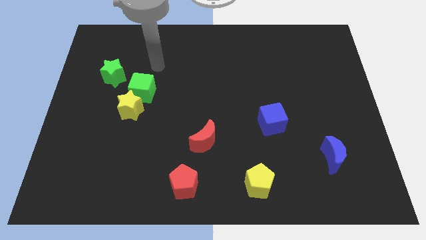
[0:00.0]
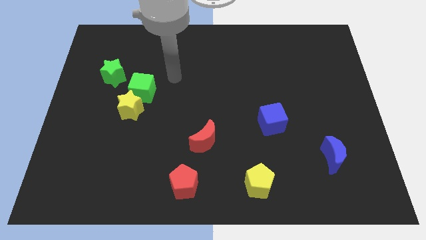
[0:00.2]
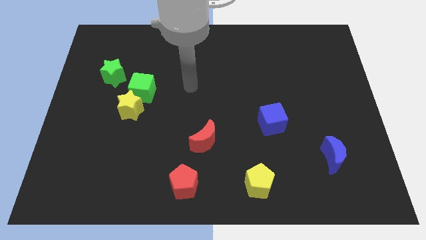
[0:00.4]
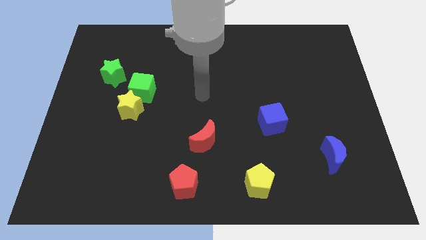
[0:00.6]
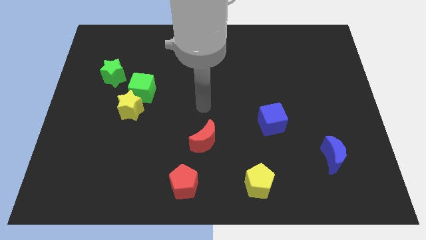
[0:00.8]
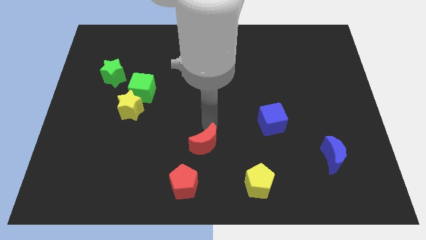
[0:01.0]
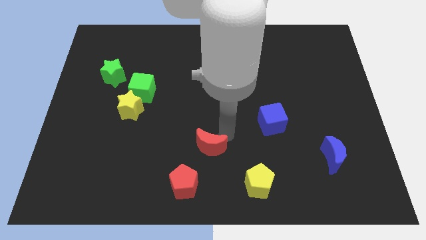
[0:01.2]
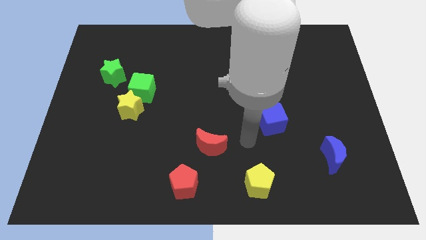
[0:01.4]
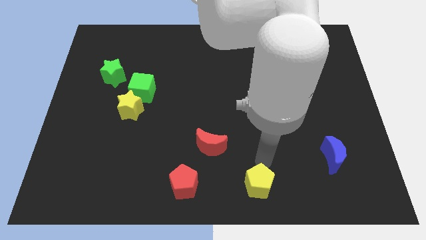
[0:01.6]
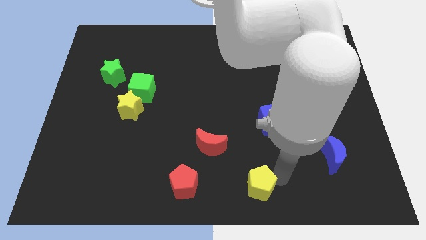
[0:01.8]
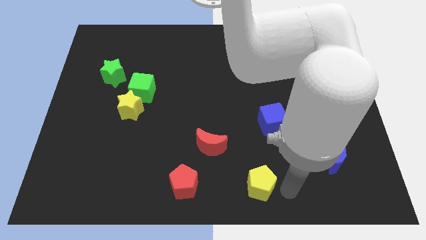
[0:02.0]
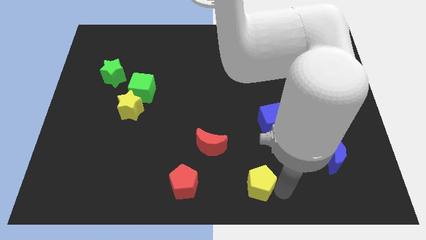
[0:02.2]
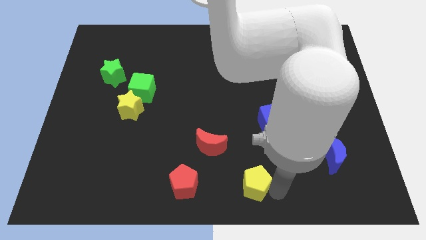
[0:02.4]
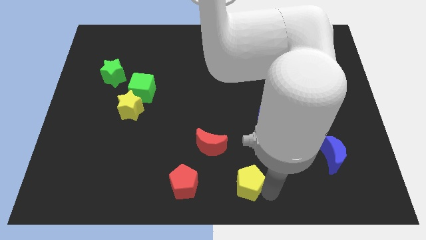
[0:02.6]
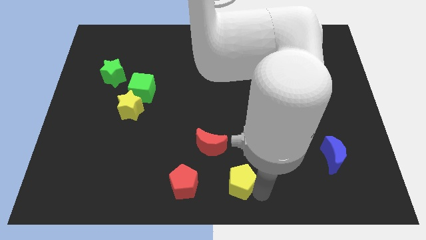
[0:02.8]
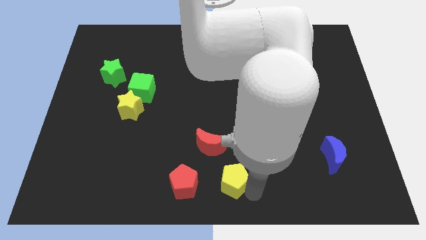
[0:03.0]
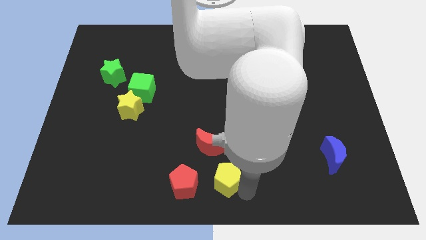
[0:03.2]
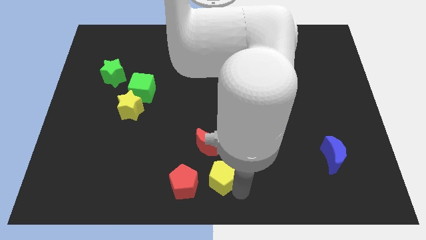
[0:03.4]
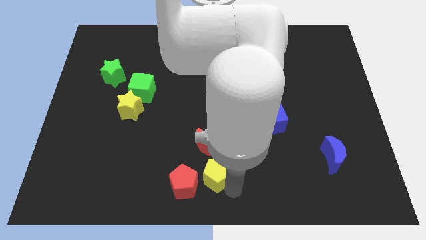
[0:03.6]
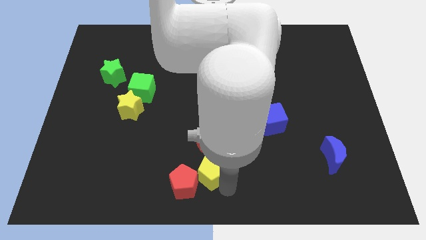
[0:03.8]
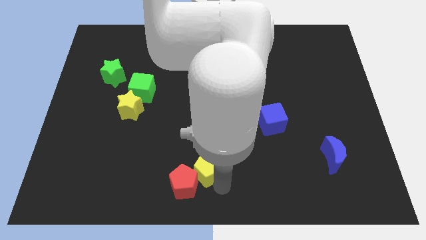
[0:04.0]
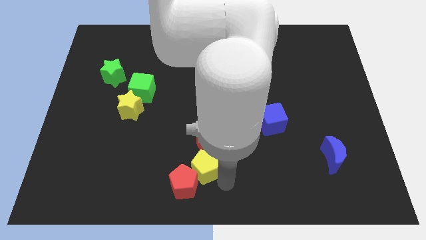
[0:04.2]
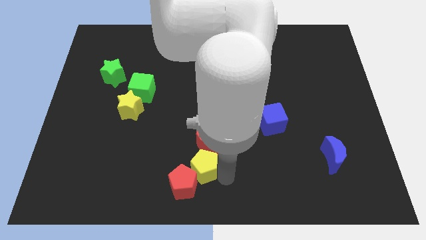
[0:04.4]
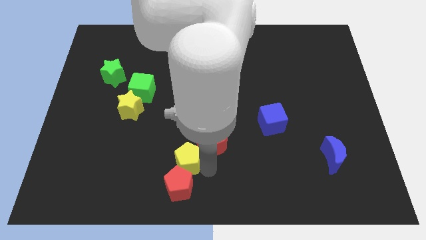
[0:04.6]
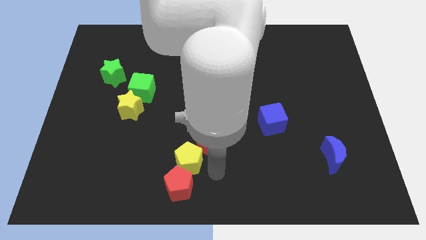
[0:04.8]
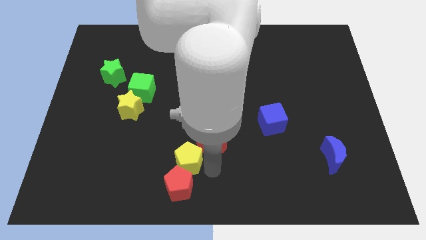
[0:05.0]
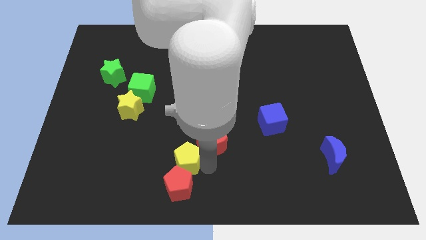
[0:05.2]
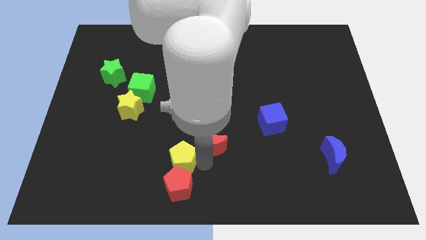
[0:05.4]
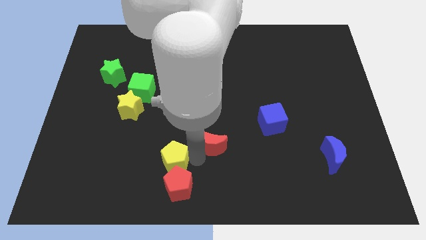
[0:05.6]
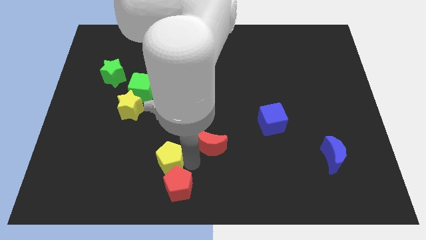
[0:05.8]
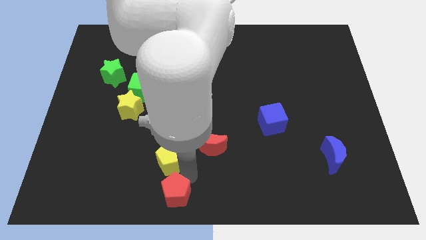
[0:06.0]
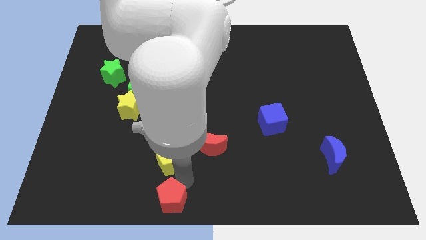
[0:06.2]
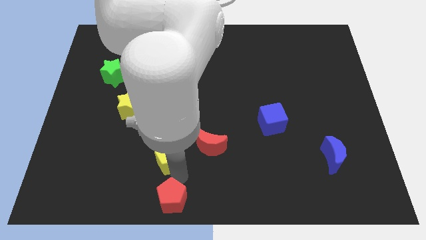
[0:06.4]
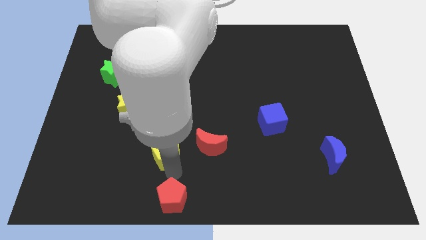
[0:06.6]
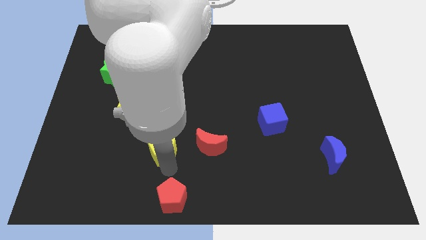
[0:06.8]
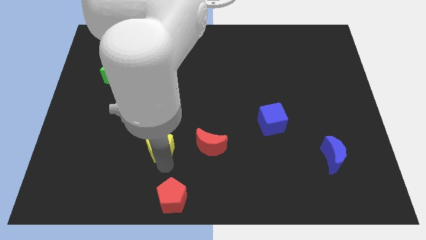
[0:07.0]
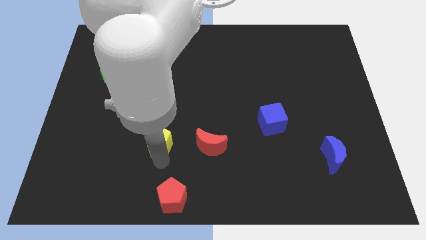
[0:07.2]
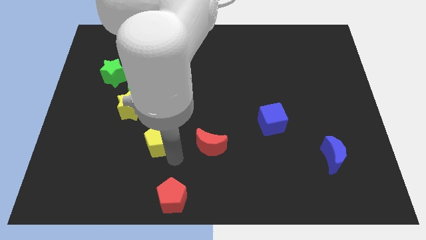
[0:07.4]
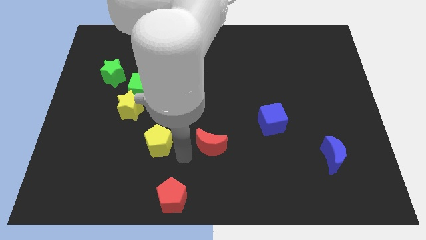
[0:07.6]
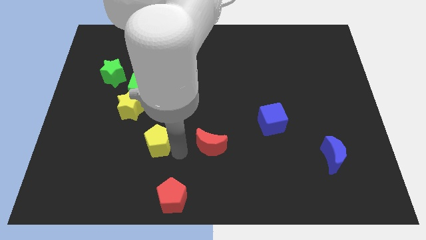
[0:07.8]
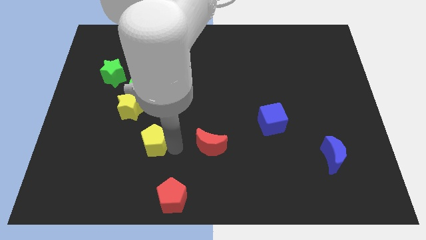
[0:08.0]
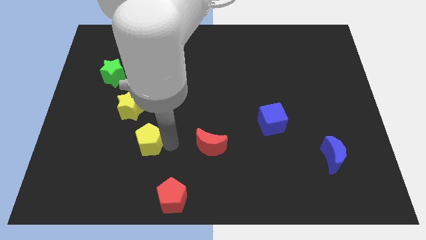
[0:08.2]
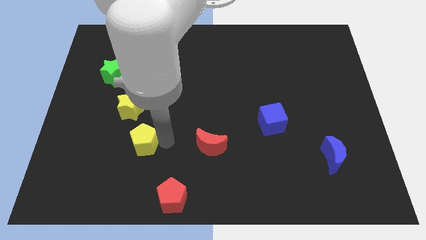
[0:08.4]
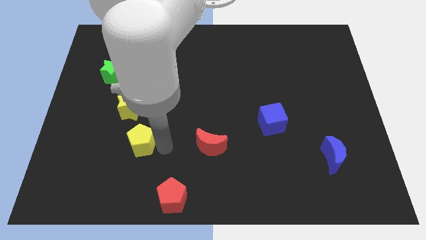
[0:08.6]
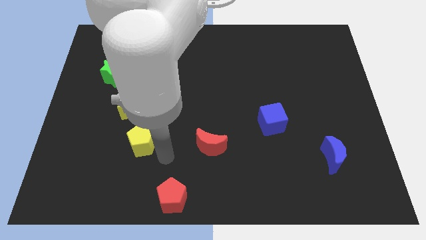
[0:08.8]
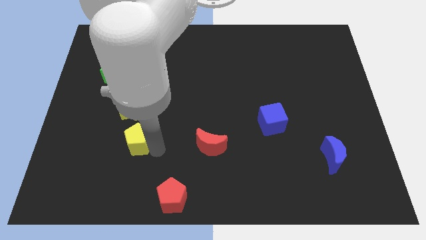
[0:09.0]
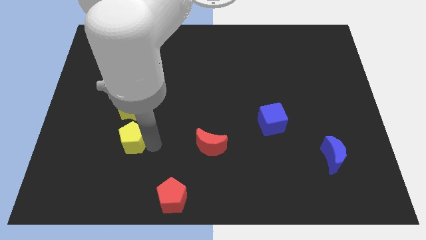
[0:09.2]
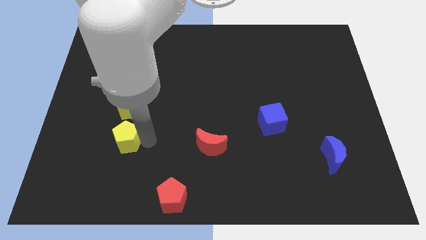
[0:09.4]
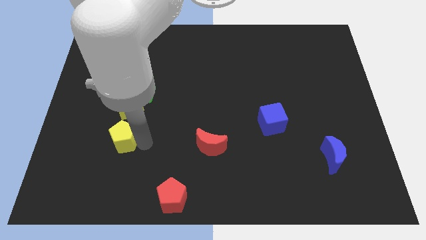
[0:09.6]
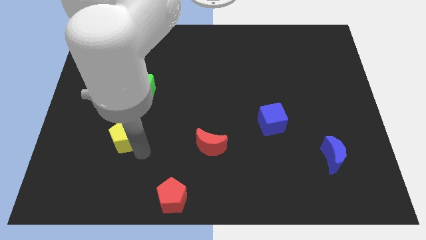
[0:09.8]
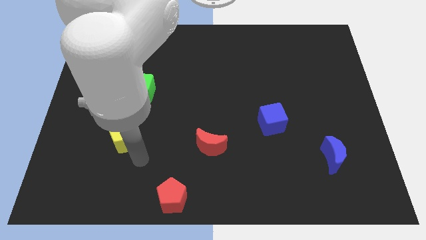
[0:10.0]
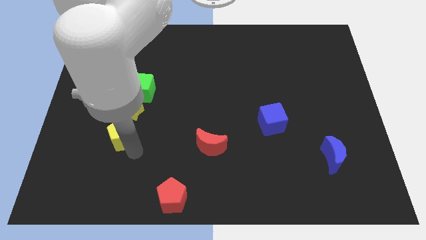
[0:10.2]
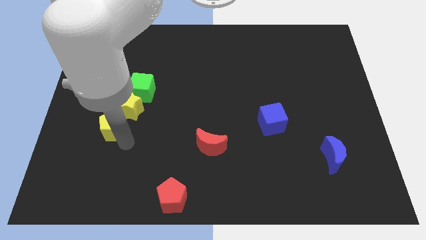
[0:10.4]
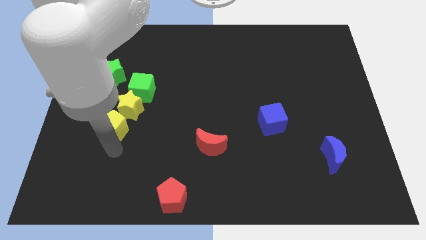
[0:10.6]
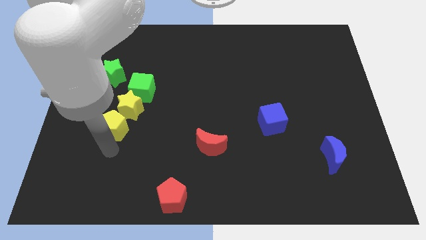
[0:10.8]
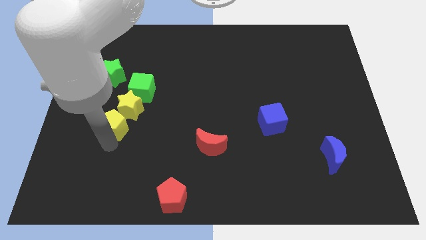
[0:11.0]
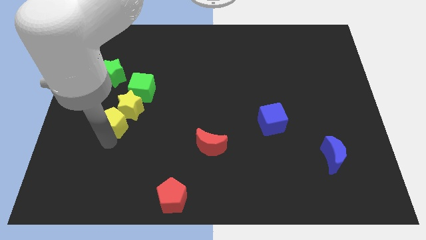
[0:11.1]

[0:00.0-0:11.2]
slide the yellow pentagon to the bottom left side of the green cube
